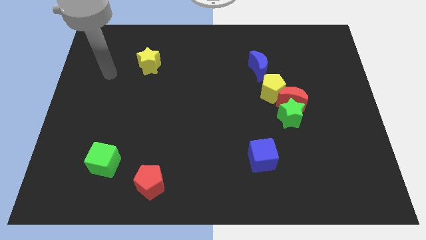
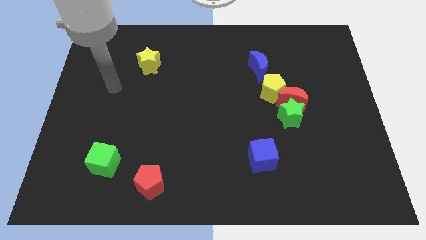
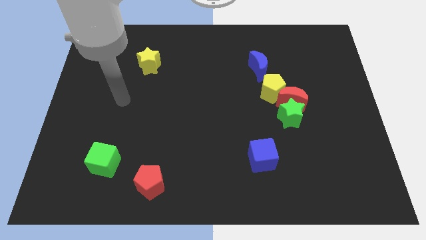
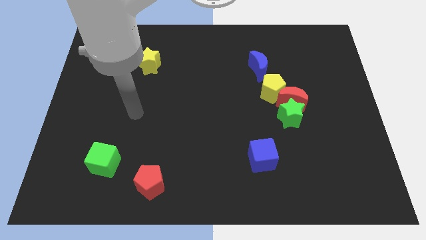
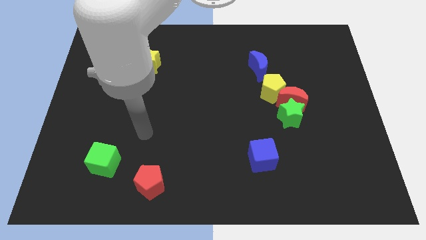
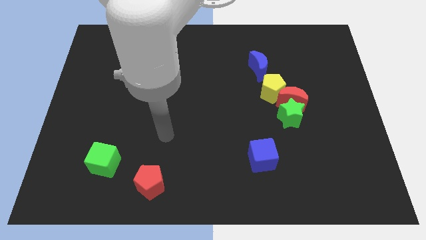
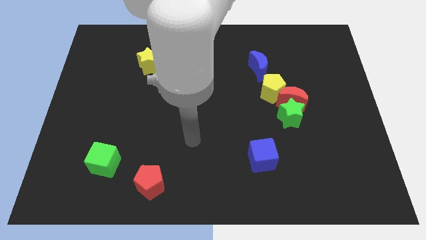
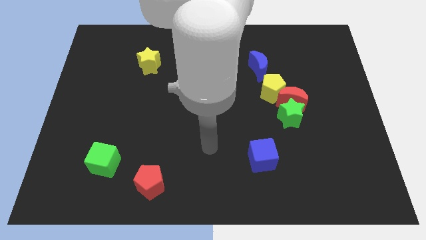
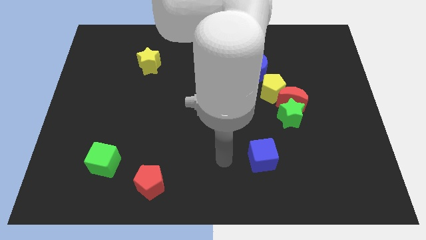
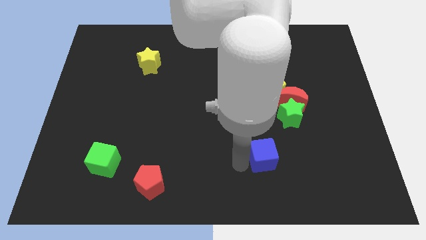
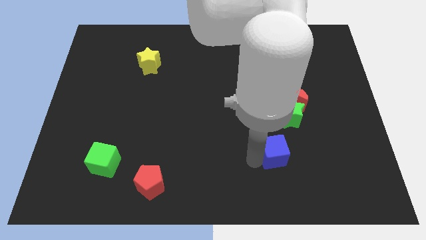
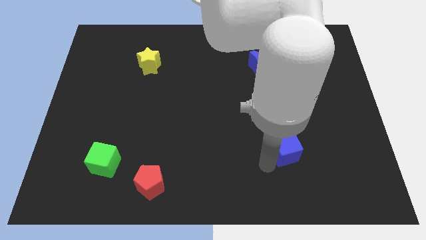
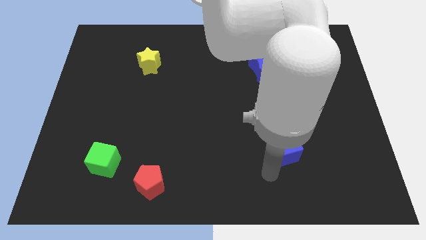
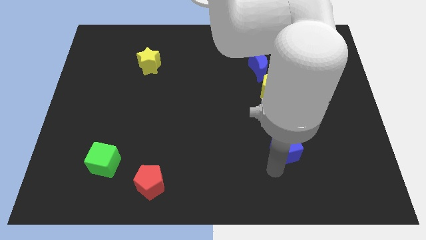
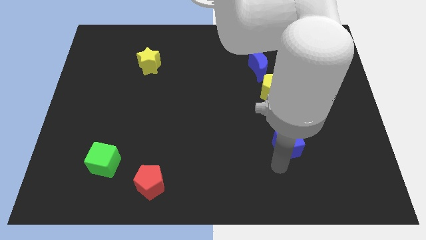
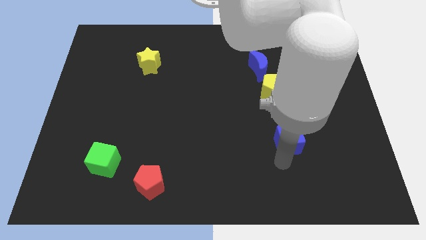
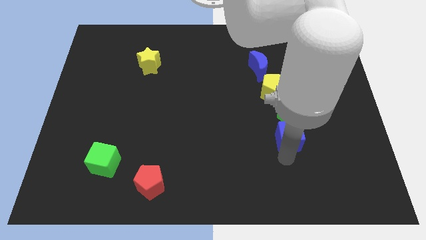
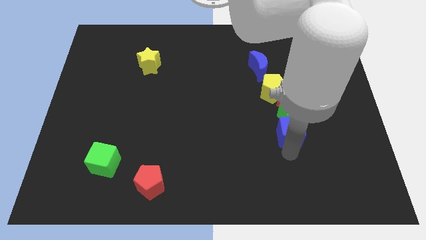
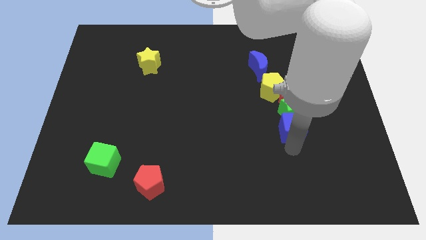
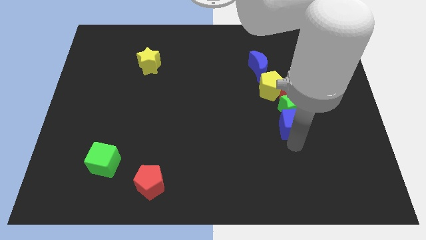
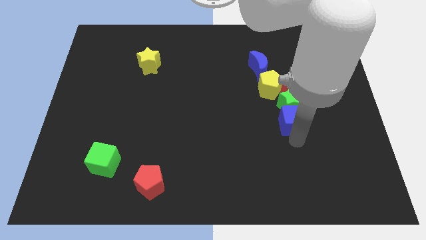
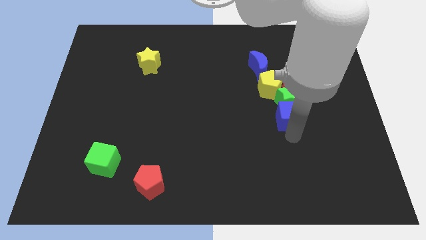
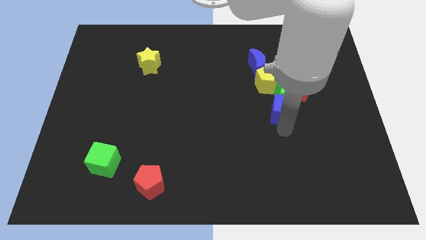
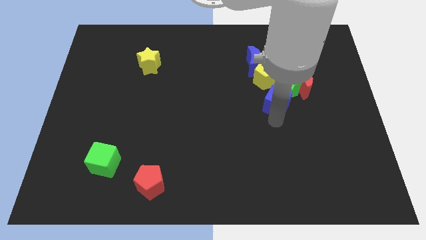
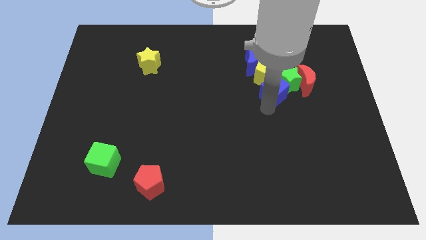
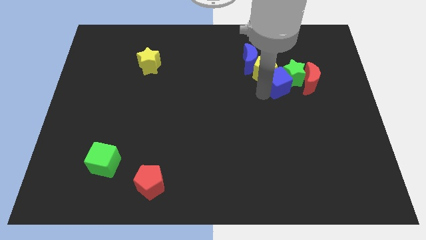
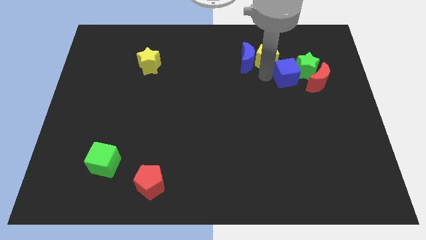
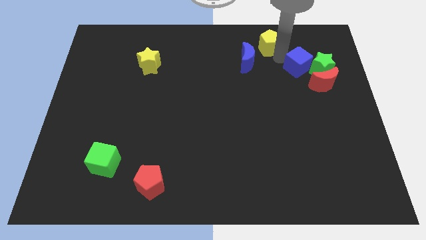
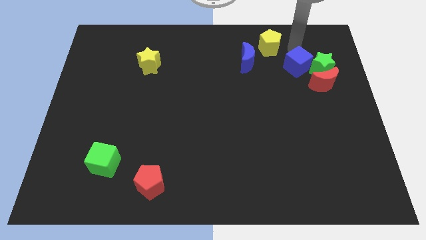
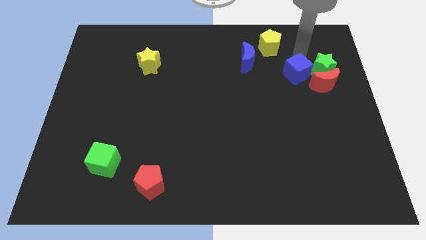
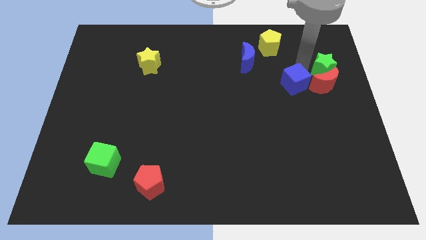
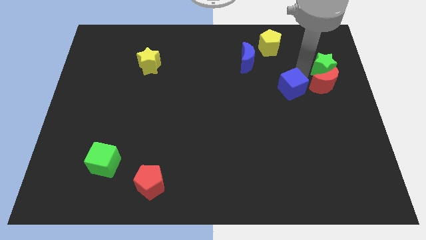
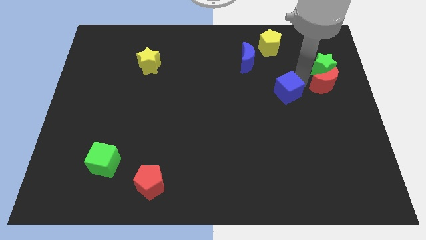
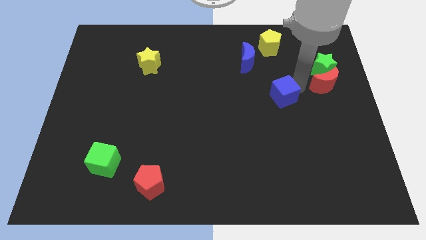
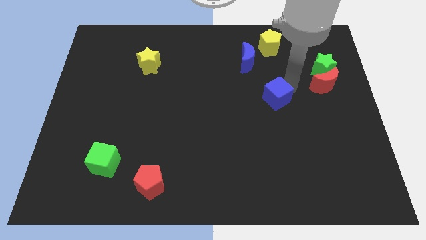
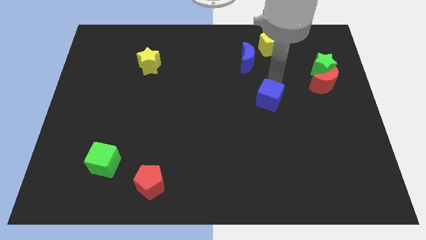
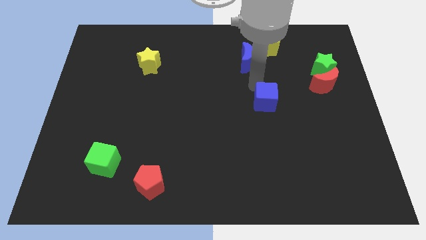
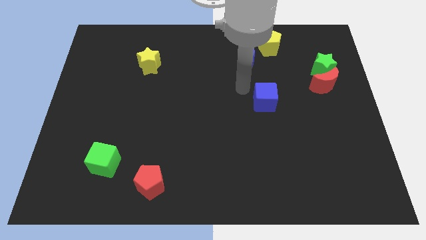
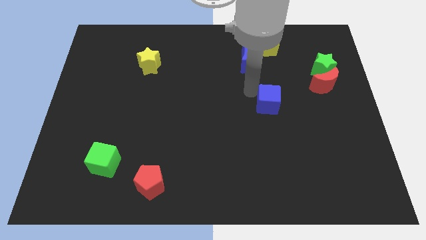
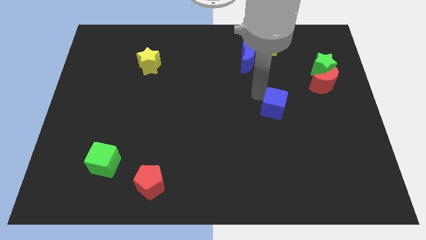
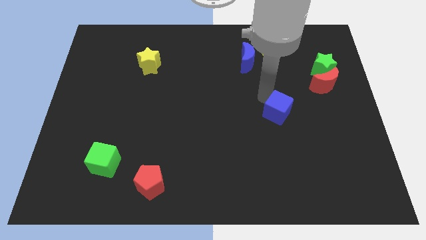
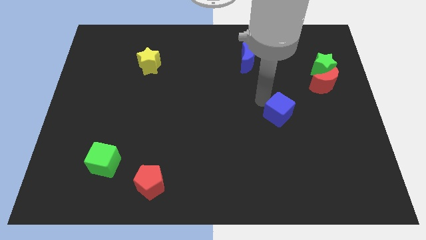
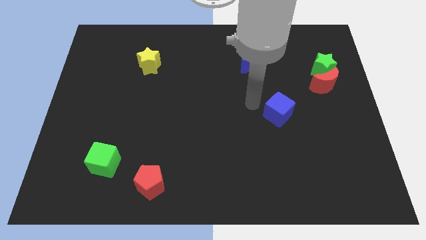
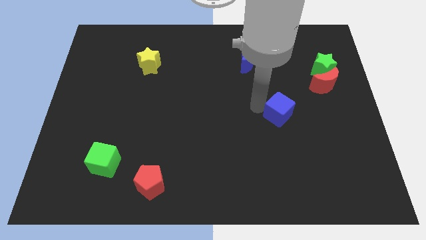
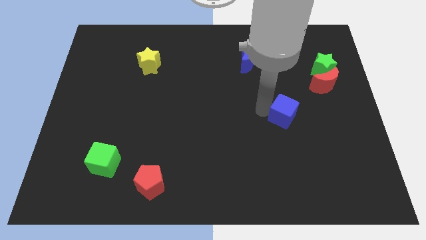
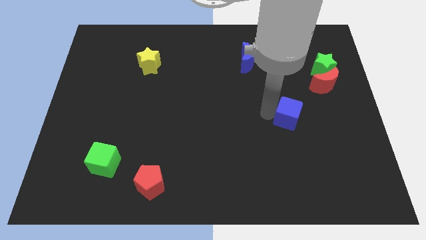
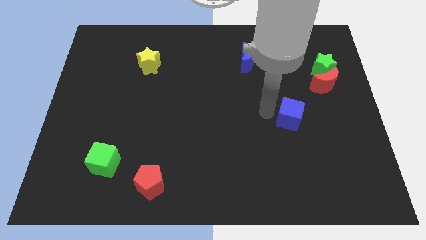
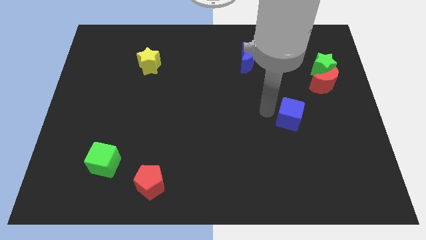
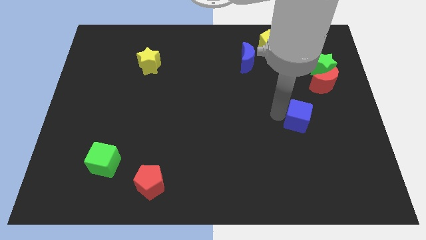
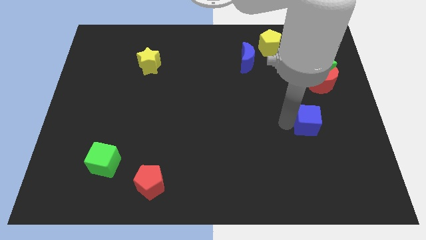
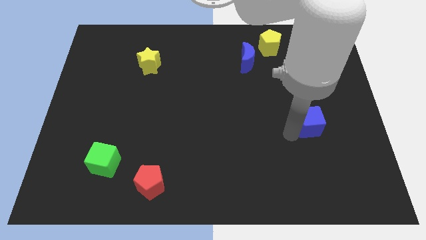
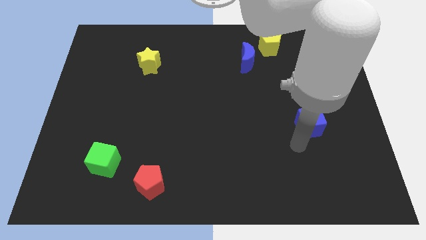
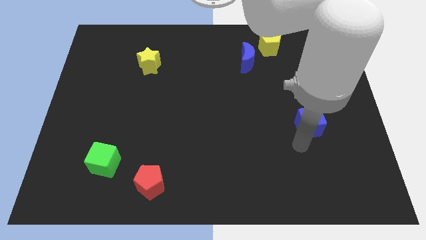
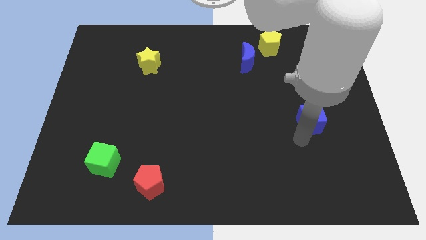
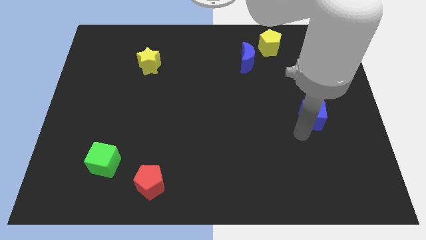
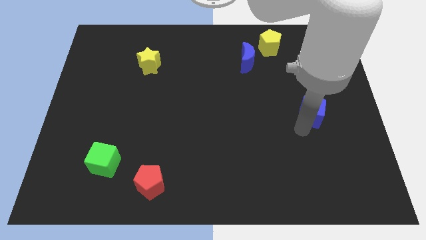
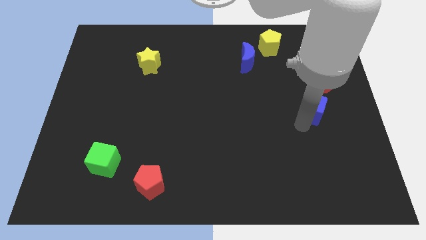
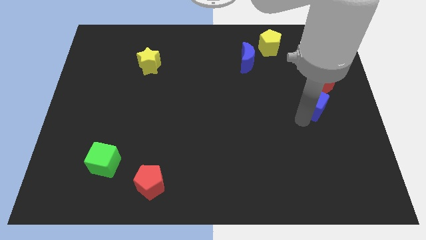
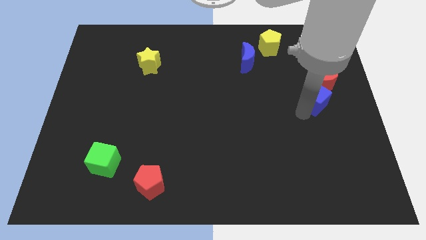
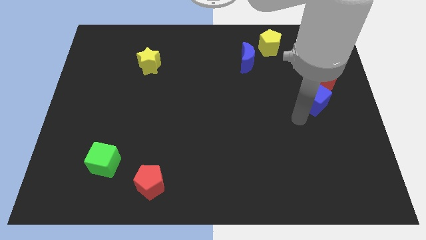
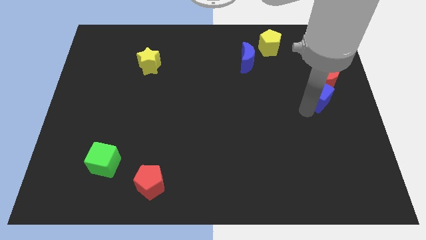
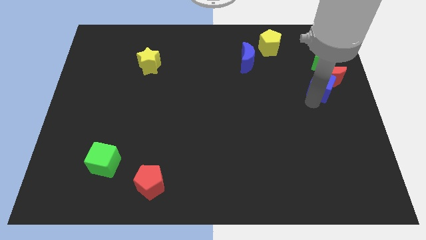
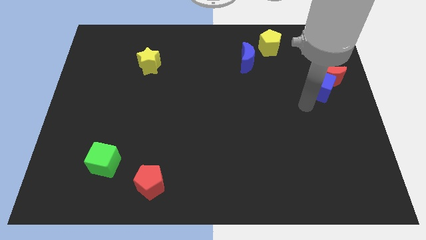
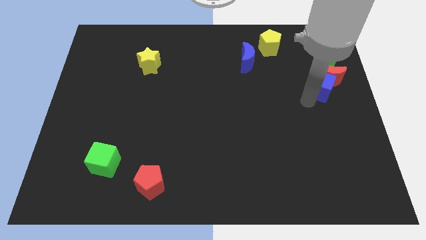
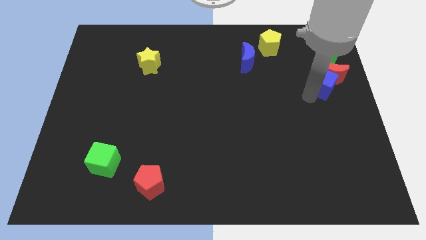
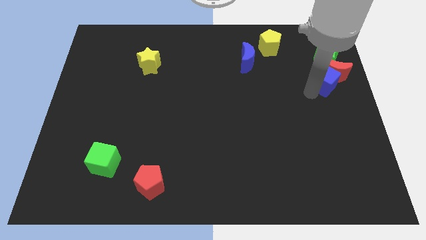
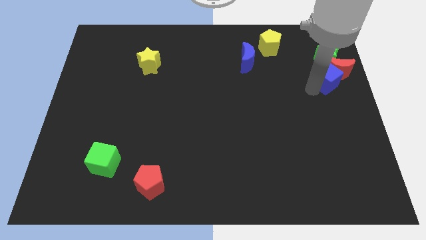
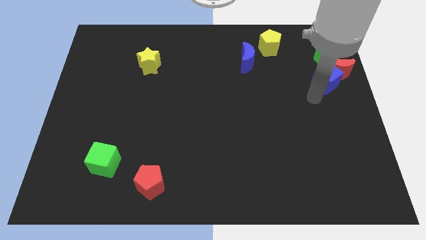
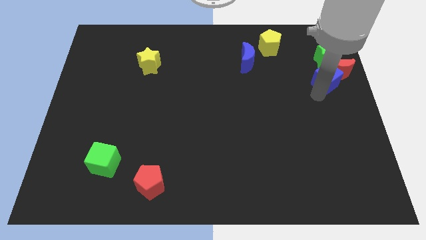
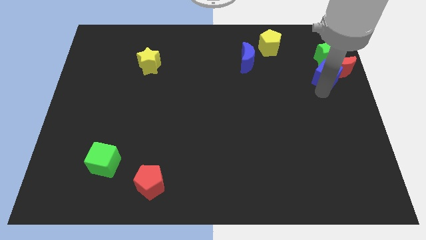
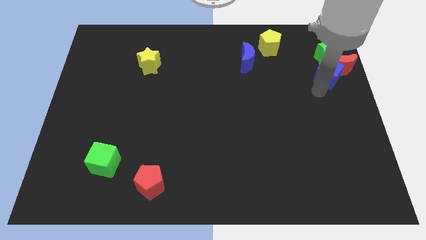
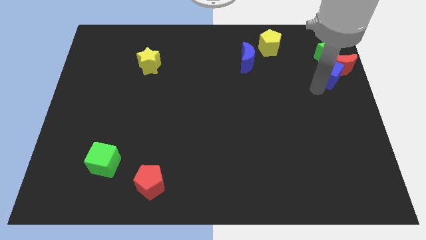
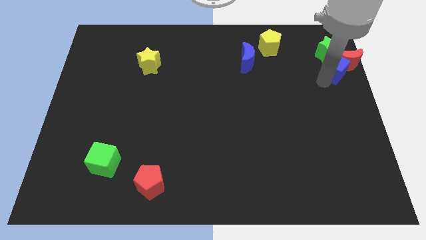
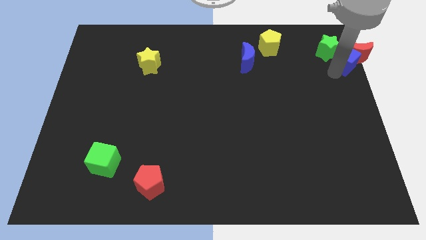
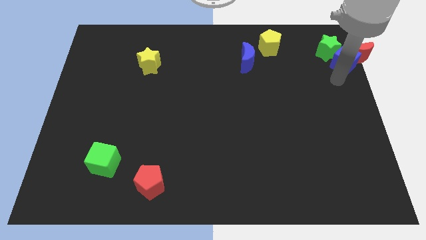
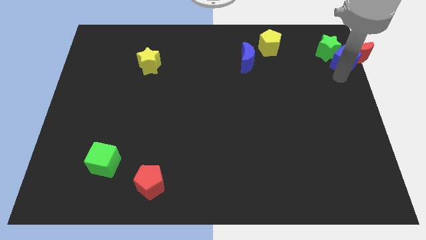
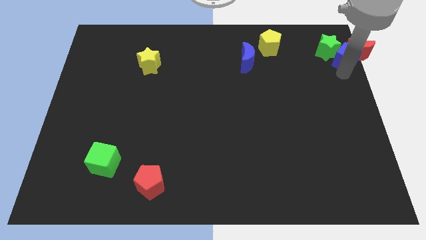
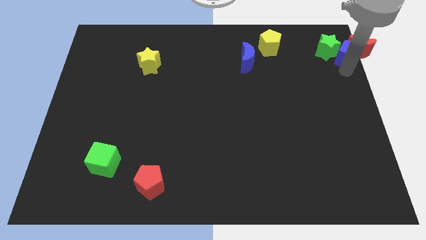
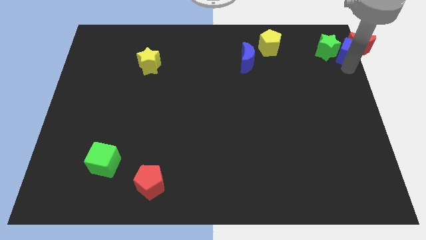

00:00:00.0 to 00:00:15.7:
put the blue cube to the top right
